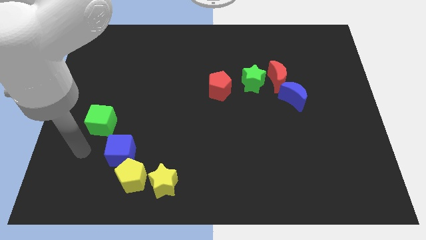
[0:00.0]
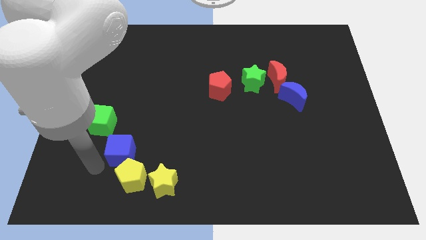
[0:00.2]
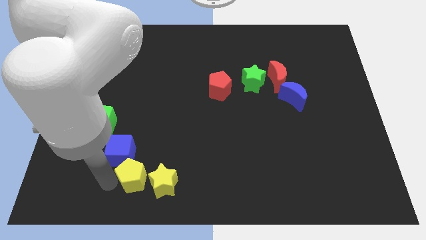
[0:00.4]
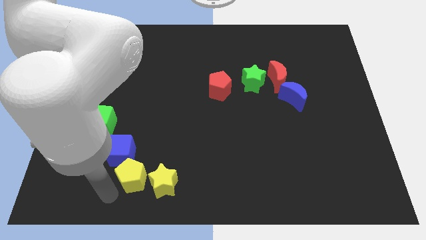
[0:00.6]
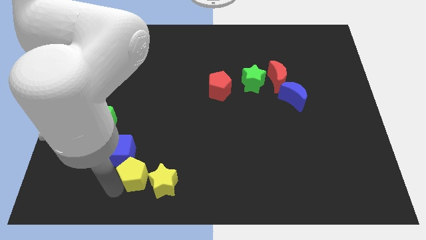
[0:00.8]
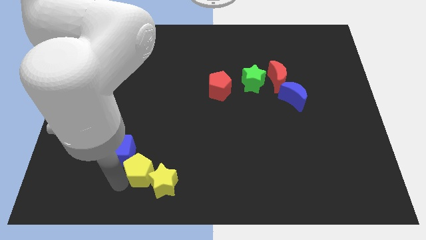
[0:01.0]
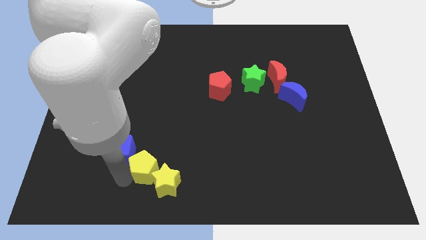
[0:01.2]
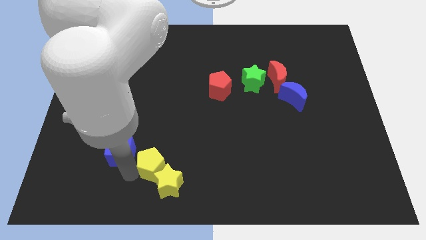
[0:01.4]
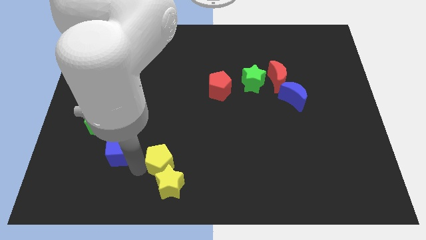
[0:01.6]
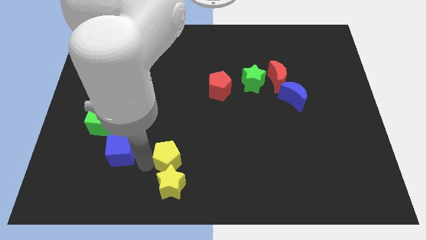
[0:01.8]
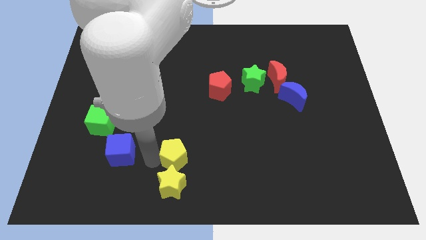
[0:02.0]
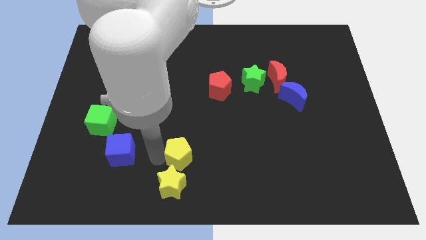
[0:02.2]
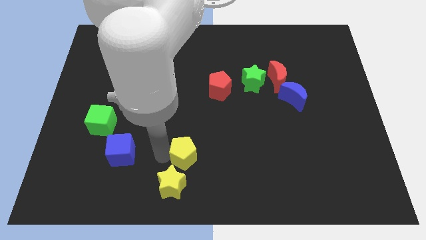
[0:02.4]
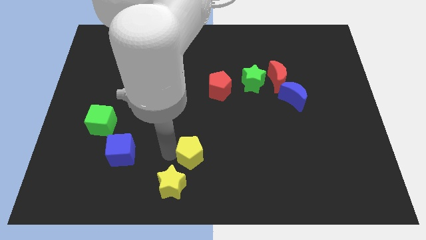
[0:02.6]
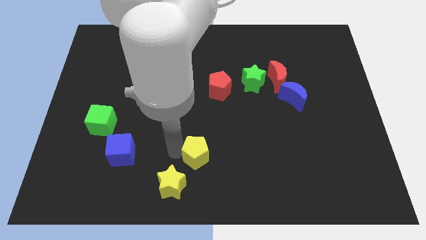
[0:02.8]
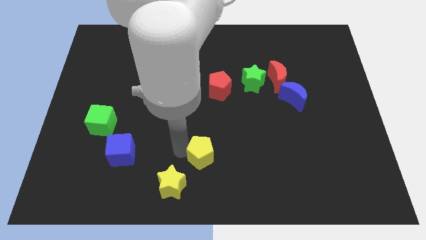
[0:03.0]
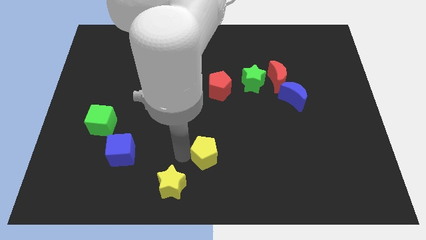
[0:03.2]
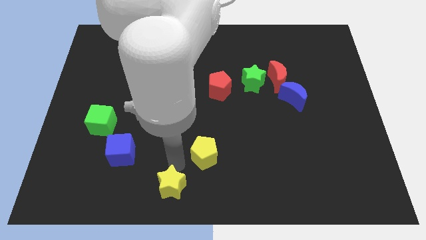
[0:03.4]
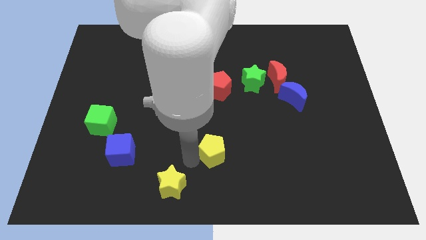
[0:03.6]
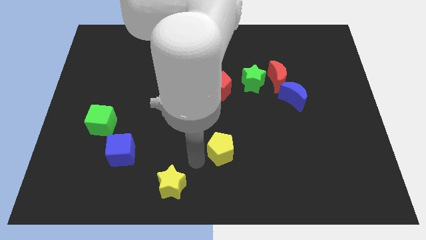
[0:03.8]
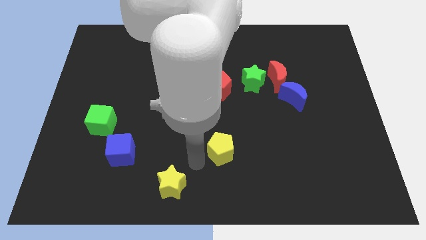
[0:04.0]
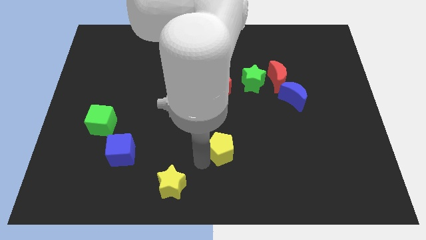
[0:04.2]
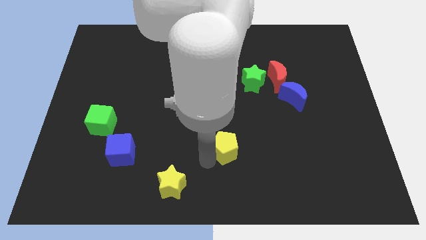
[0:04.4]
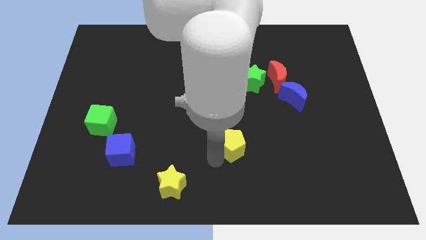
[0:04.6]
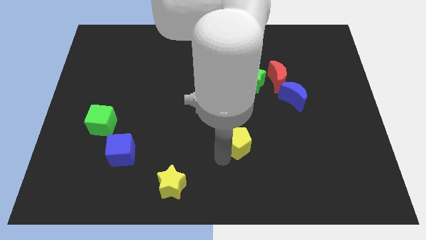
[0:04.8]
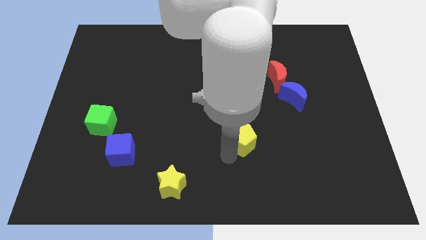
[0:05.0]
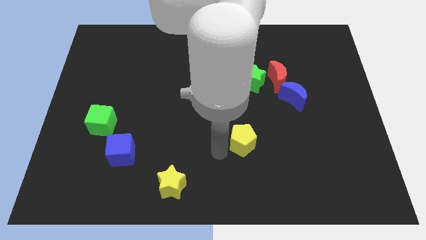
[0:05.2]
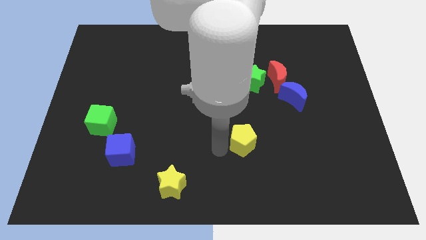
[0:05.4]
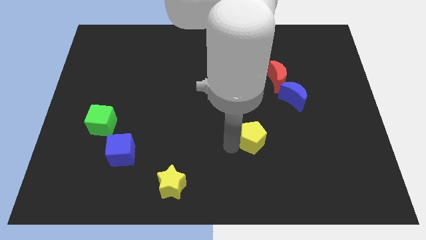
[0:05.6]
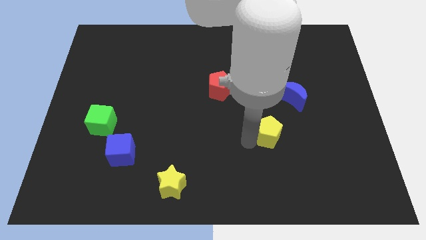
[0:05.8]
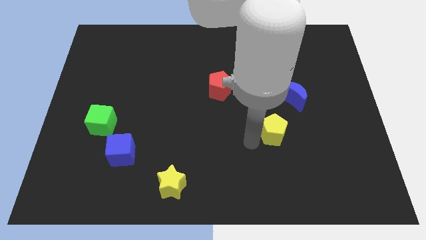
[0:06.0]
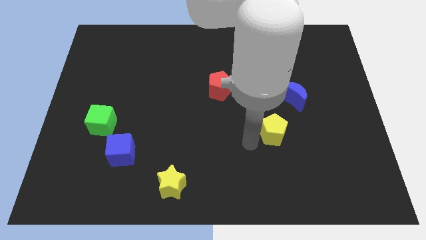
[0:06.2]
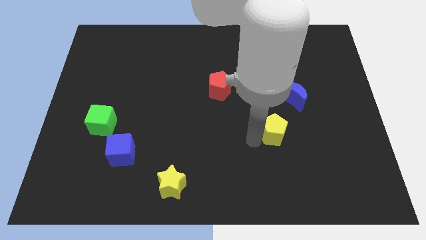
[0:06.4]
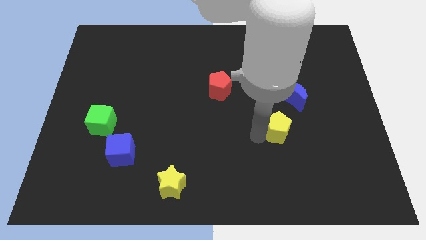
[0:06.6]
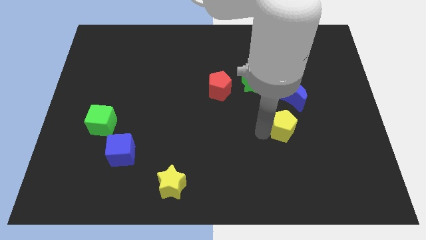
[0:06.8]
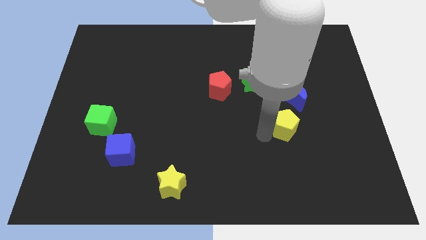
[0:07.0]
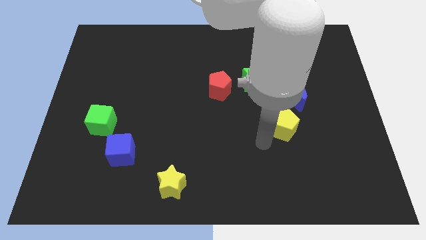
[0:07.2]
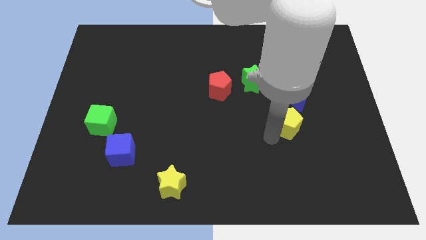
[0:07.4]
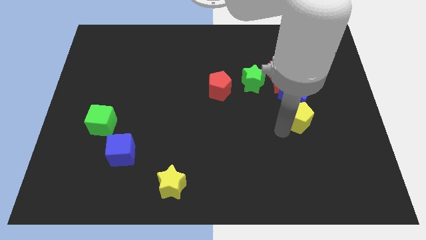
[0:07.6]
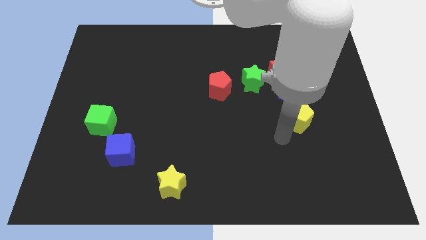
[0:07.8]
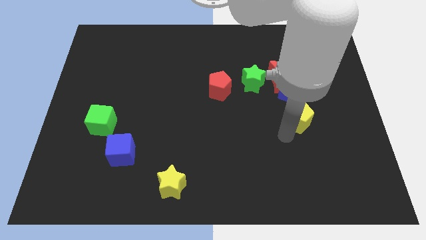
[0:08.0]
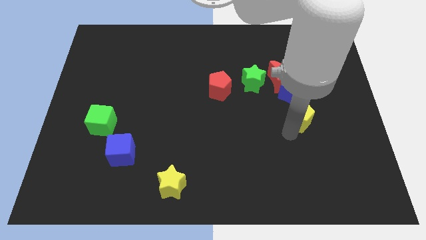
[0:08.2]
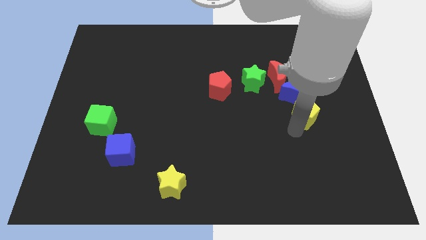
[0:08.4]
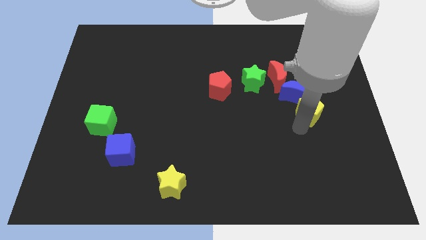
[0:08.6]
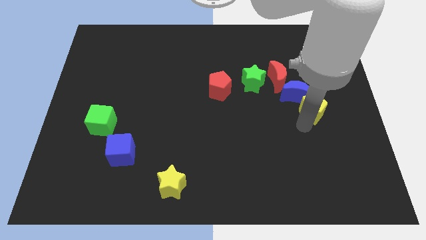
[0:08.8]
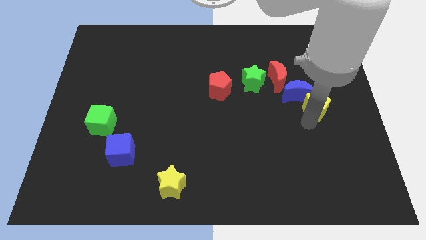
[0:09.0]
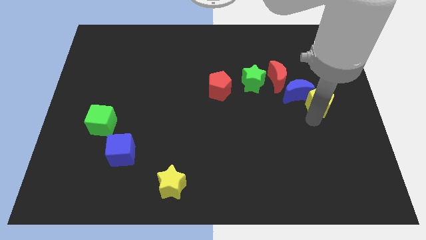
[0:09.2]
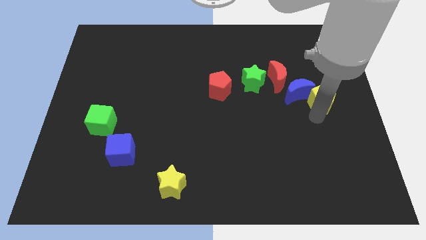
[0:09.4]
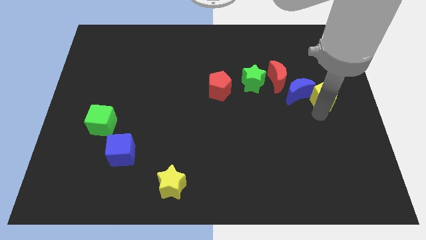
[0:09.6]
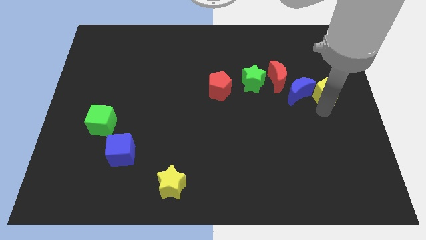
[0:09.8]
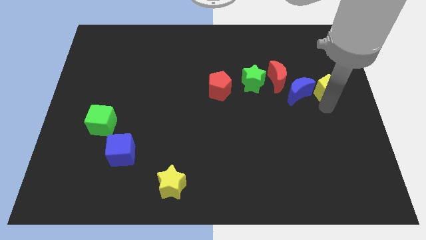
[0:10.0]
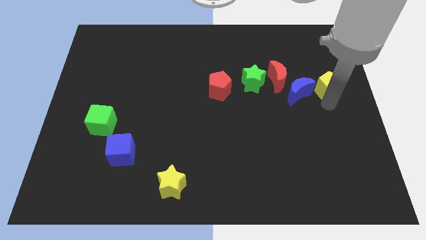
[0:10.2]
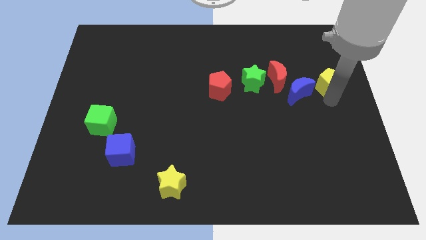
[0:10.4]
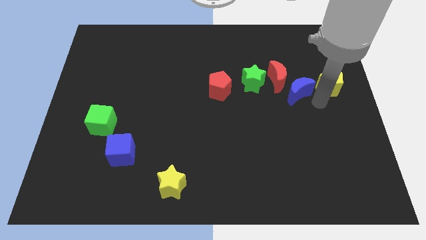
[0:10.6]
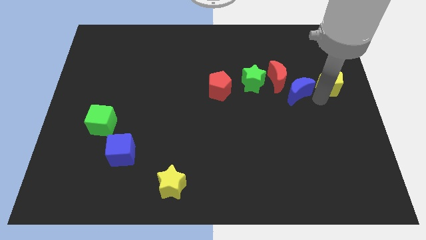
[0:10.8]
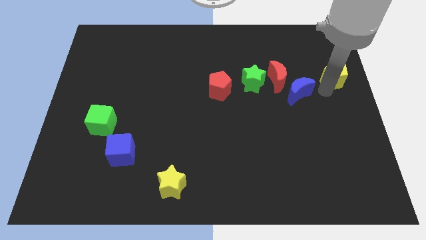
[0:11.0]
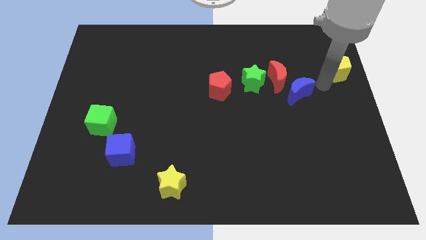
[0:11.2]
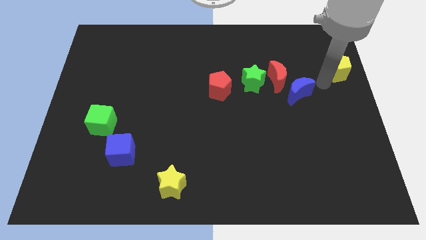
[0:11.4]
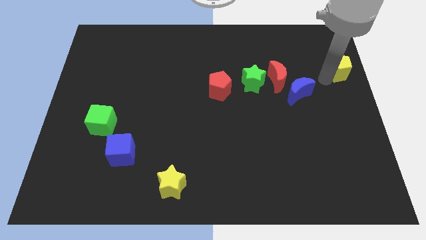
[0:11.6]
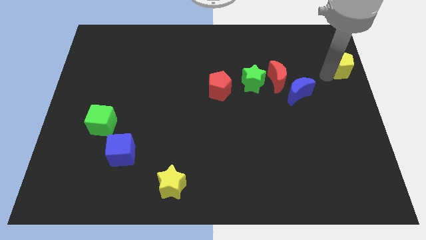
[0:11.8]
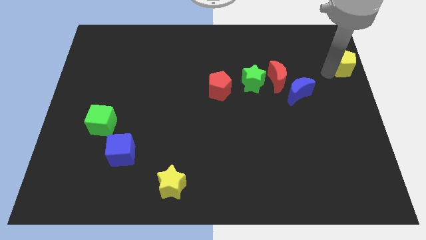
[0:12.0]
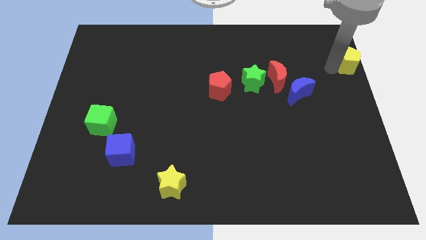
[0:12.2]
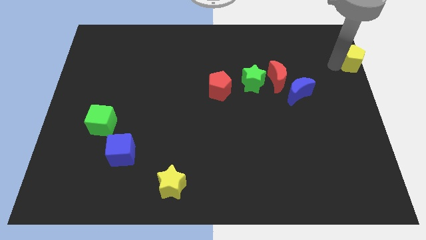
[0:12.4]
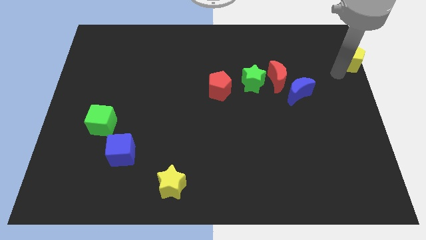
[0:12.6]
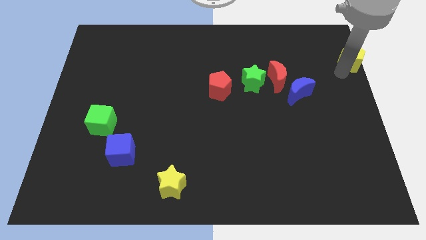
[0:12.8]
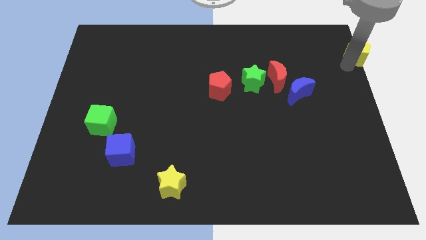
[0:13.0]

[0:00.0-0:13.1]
push the yellow pentagon to the upper right corner
